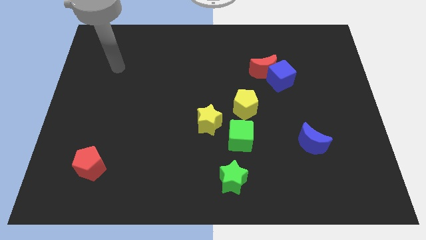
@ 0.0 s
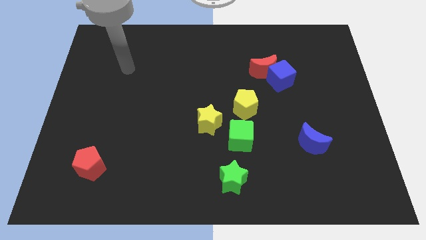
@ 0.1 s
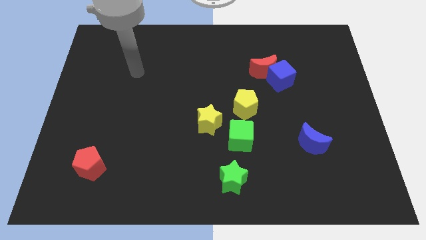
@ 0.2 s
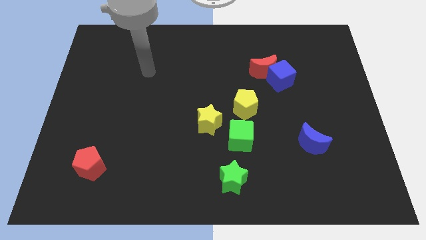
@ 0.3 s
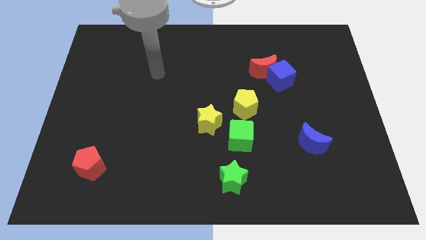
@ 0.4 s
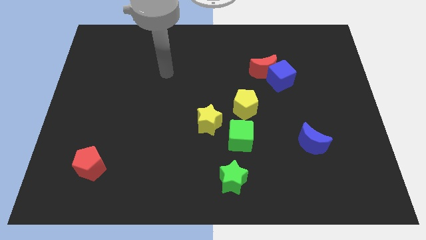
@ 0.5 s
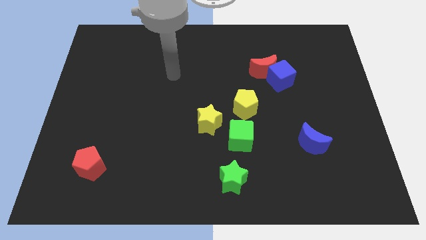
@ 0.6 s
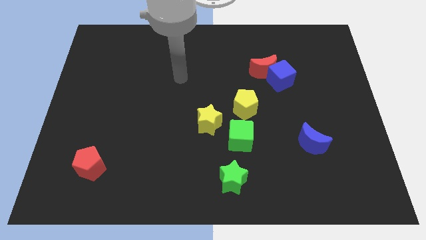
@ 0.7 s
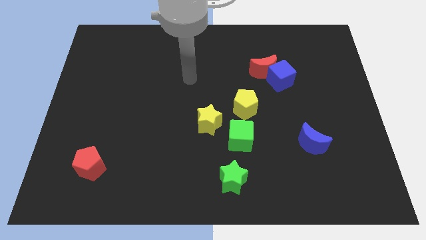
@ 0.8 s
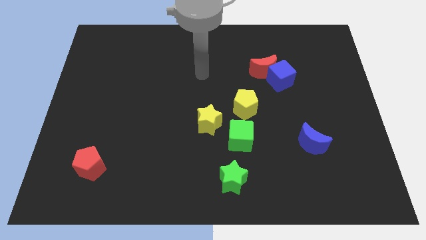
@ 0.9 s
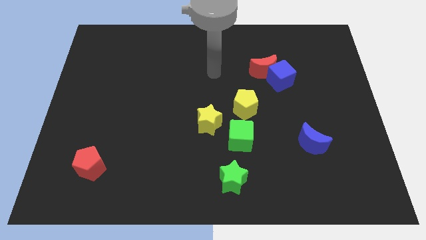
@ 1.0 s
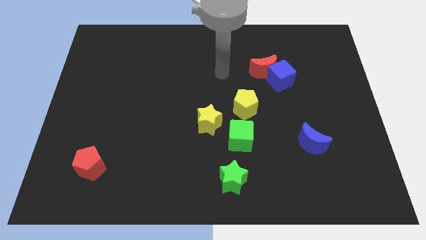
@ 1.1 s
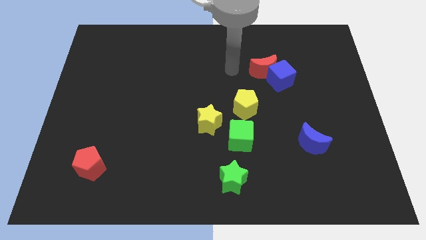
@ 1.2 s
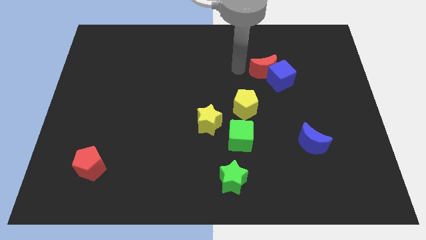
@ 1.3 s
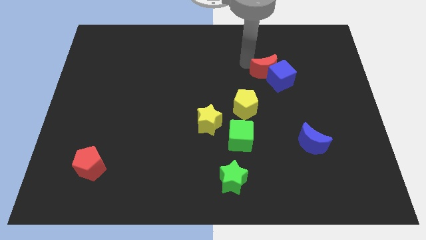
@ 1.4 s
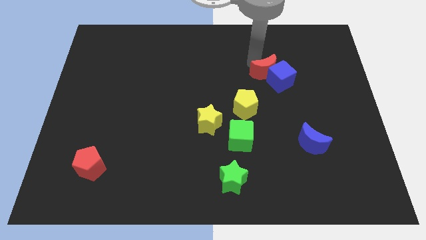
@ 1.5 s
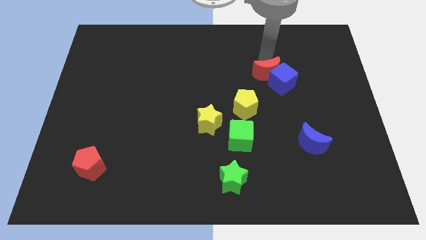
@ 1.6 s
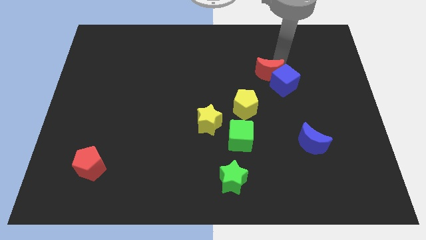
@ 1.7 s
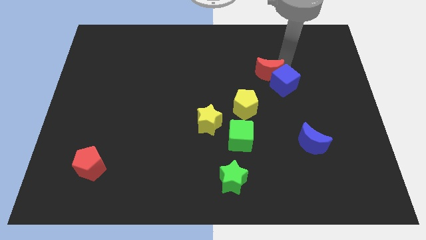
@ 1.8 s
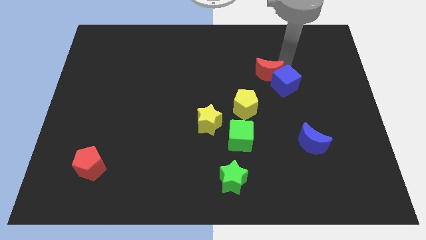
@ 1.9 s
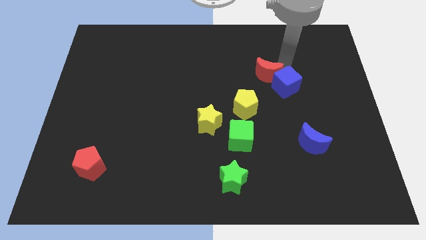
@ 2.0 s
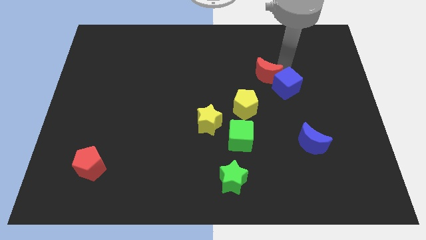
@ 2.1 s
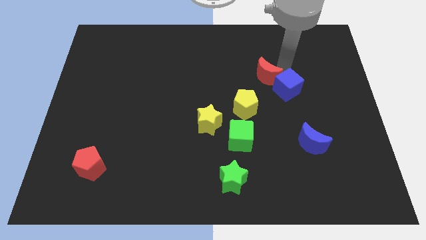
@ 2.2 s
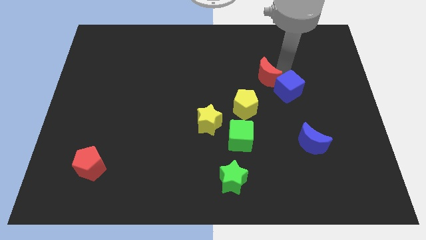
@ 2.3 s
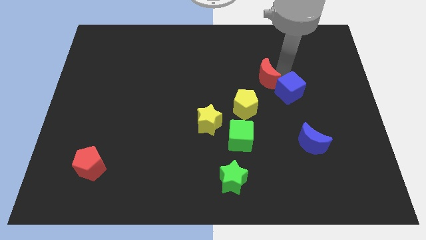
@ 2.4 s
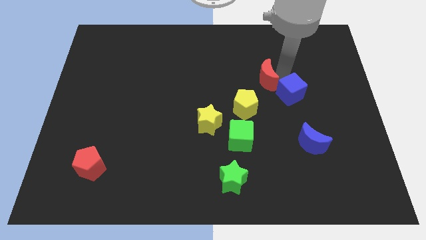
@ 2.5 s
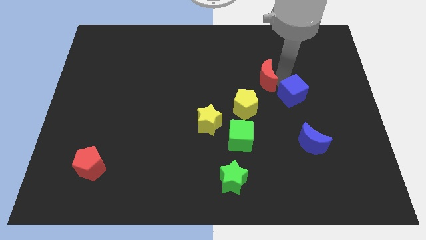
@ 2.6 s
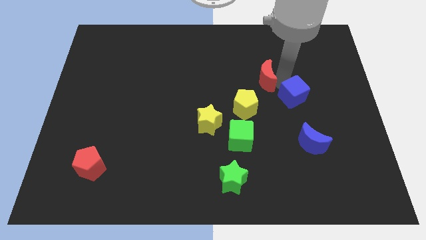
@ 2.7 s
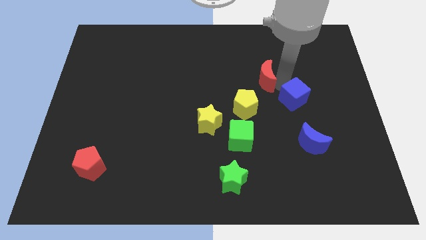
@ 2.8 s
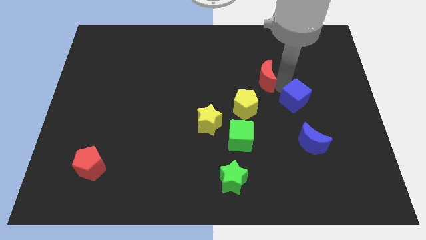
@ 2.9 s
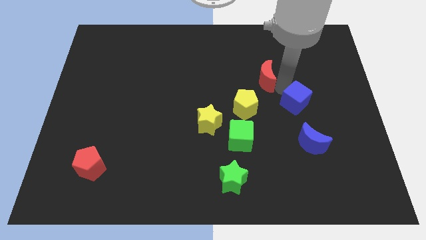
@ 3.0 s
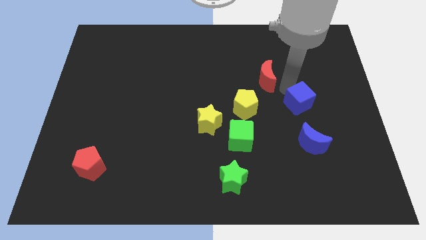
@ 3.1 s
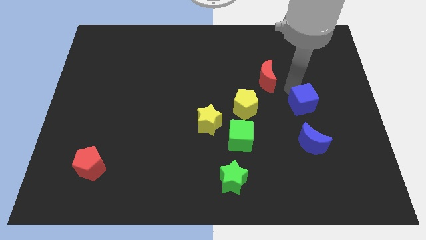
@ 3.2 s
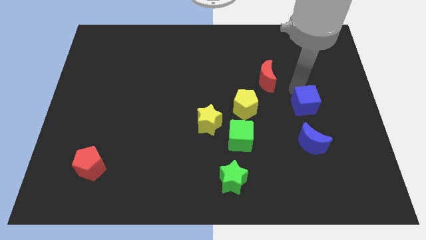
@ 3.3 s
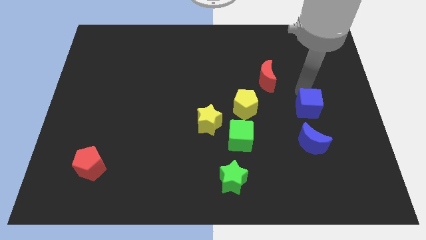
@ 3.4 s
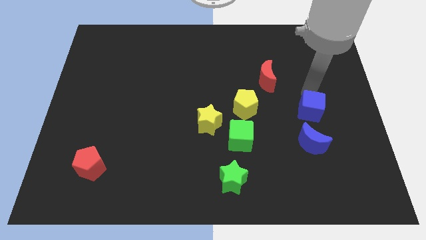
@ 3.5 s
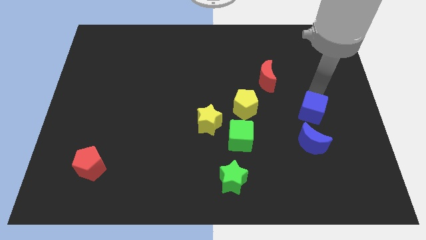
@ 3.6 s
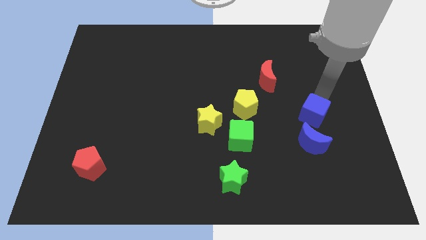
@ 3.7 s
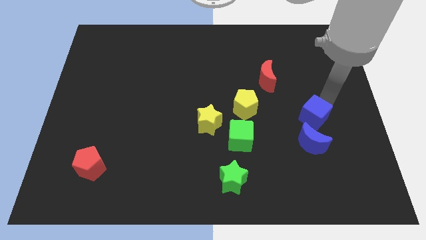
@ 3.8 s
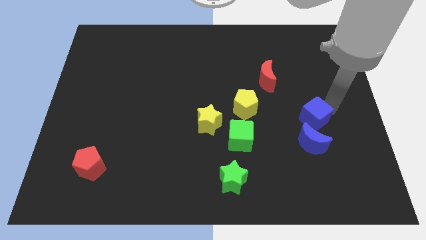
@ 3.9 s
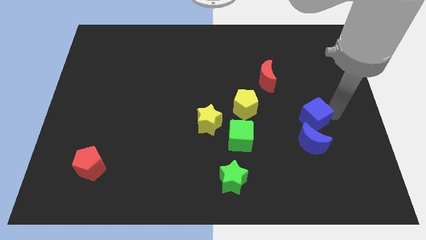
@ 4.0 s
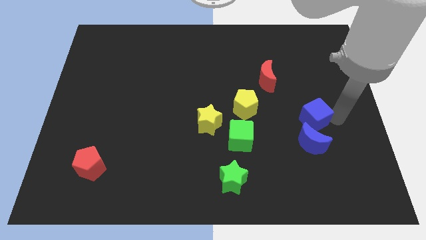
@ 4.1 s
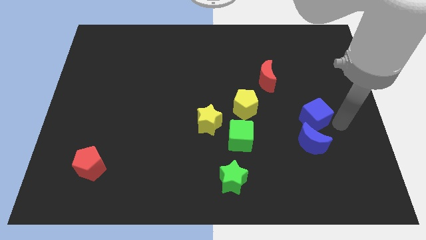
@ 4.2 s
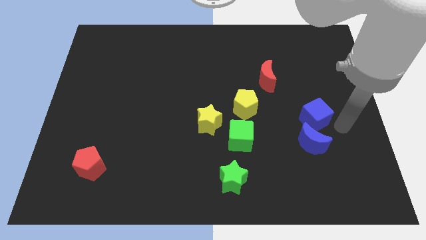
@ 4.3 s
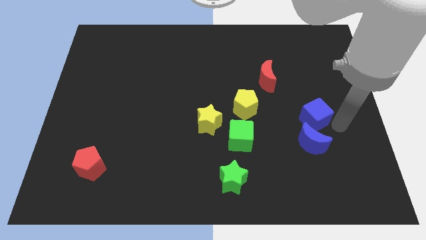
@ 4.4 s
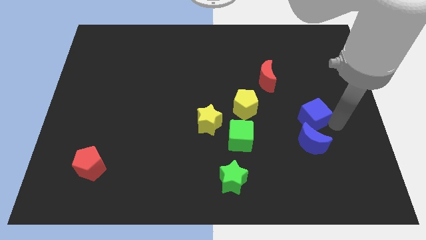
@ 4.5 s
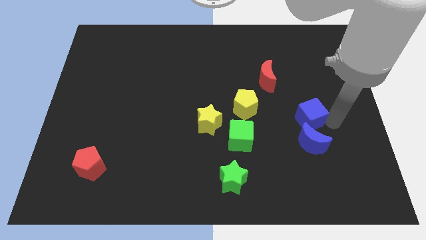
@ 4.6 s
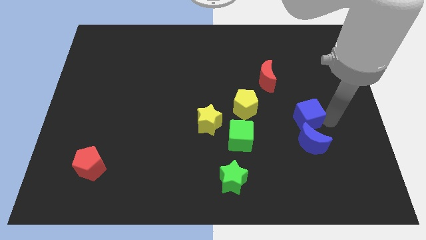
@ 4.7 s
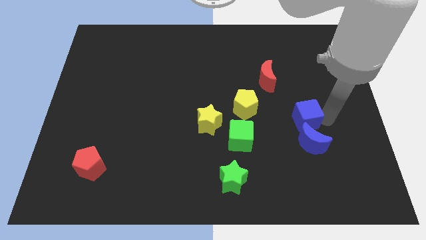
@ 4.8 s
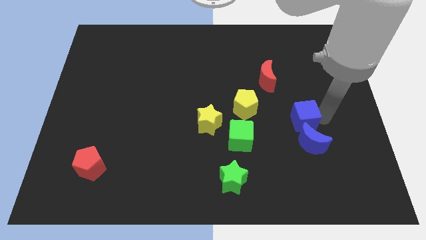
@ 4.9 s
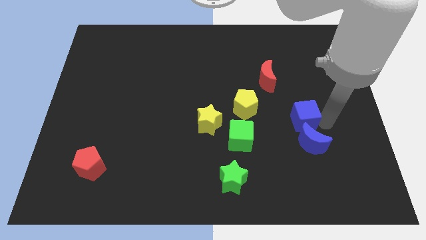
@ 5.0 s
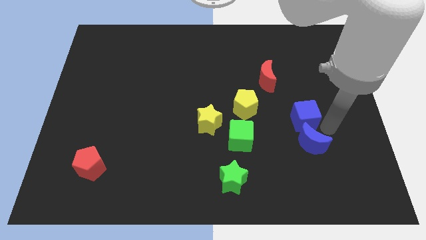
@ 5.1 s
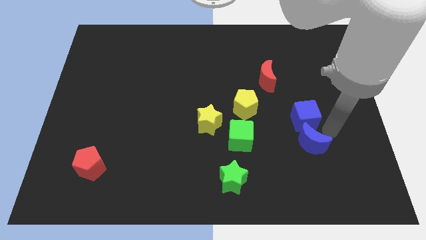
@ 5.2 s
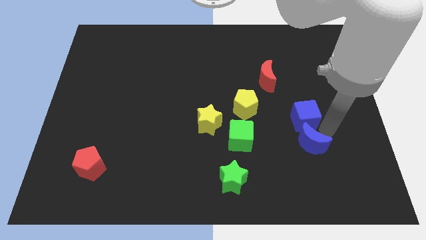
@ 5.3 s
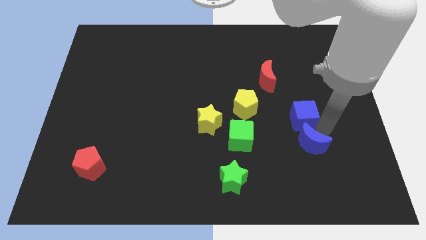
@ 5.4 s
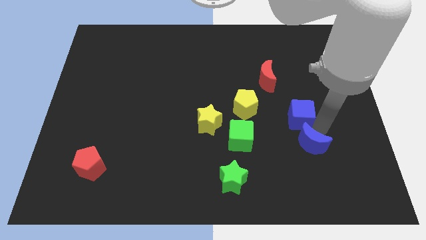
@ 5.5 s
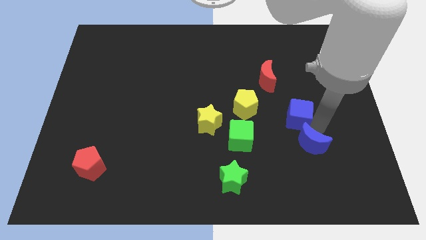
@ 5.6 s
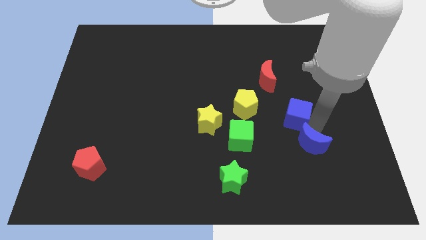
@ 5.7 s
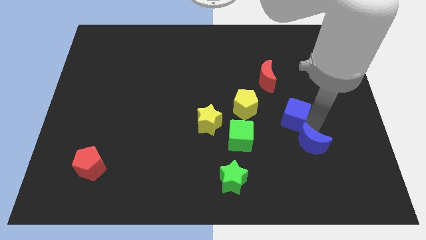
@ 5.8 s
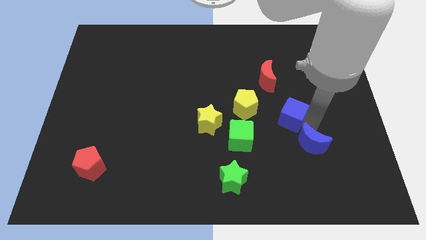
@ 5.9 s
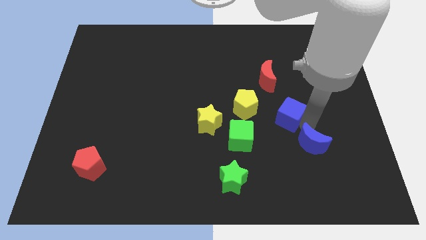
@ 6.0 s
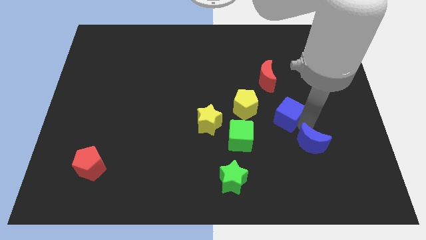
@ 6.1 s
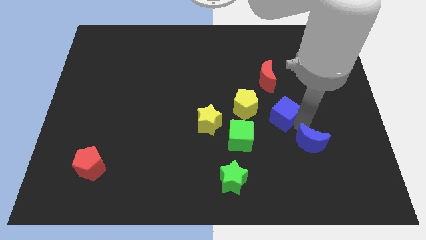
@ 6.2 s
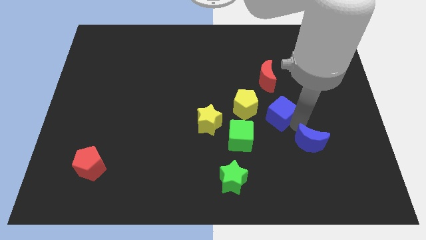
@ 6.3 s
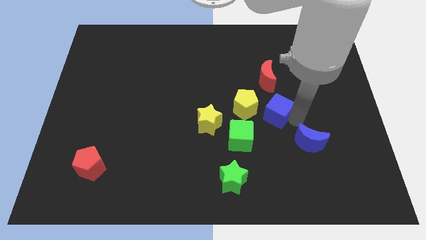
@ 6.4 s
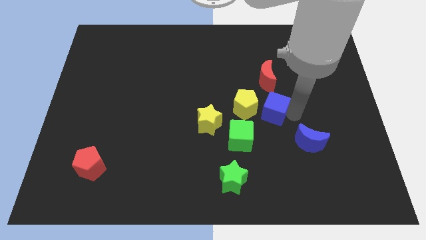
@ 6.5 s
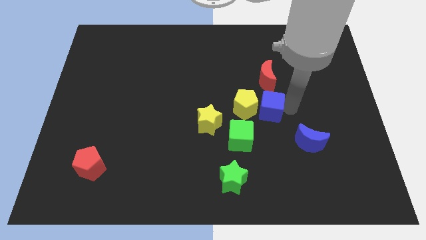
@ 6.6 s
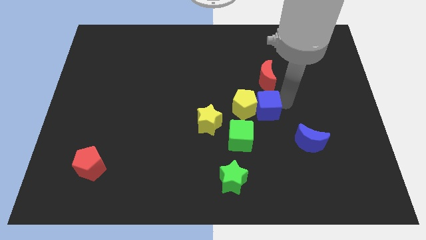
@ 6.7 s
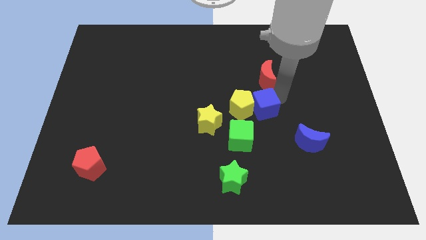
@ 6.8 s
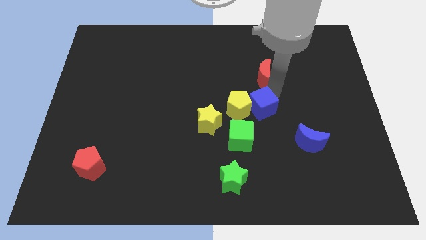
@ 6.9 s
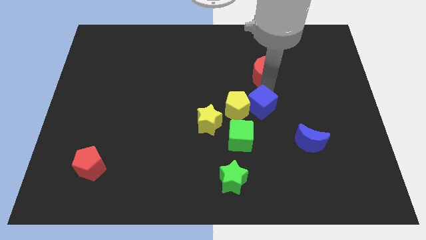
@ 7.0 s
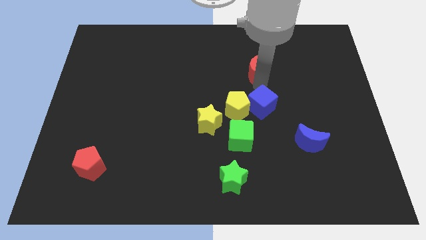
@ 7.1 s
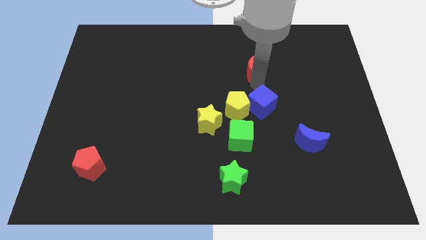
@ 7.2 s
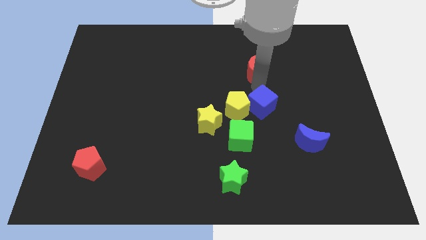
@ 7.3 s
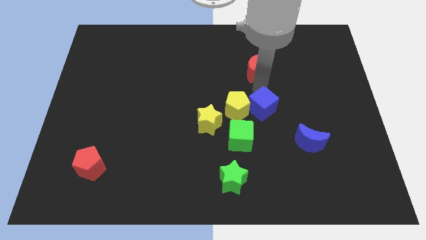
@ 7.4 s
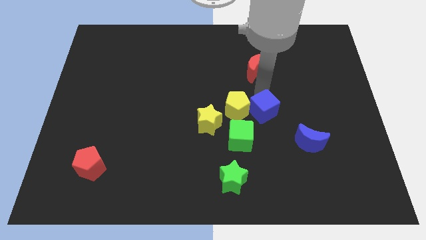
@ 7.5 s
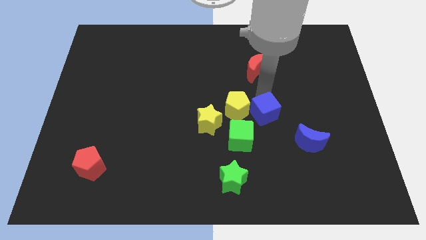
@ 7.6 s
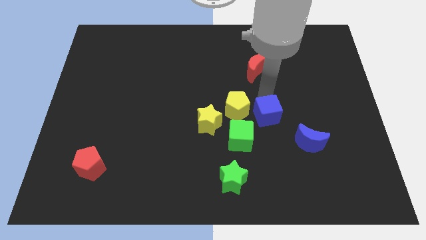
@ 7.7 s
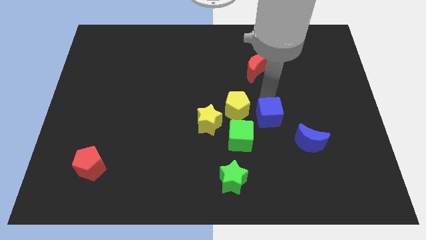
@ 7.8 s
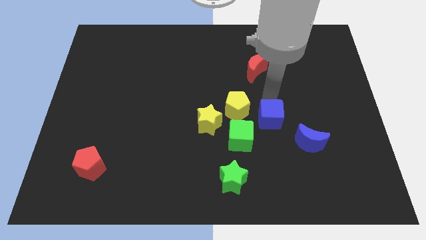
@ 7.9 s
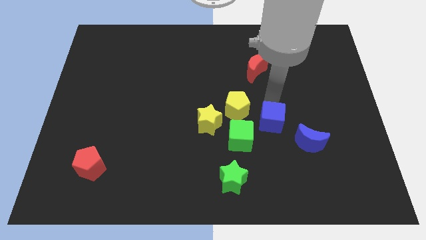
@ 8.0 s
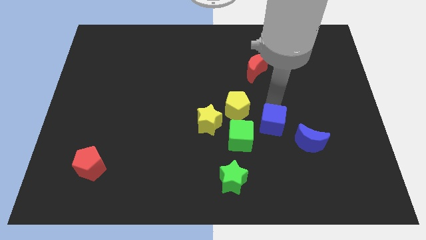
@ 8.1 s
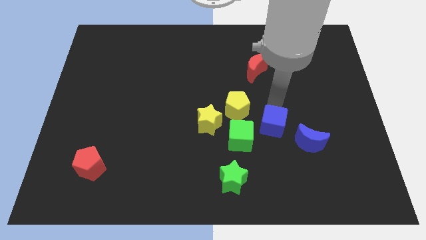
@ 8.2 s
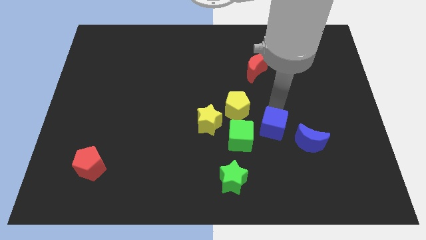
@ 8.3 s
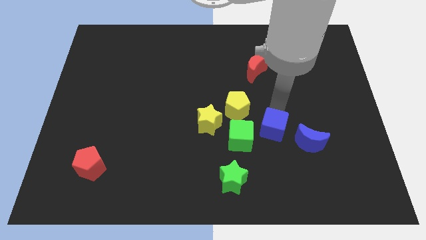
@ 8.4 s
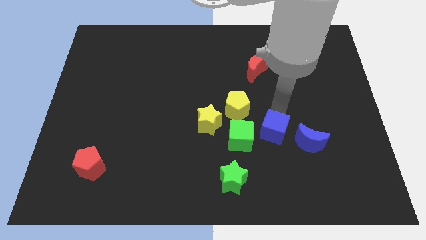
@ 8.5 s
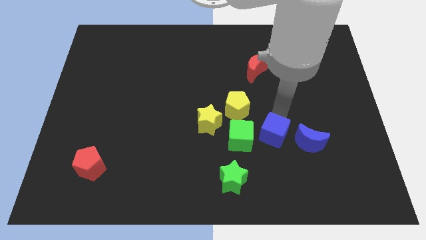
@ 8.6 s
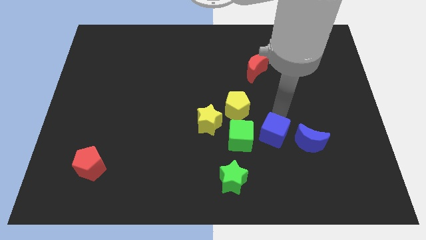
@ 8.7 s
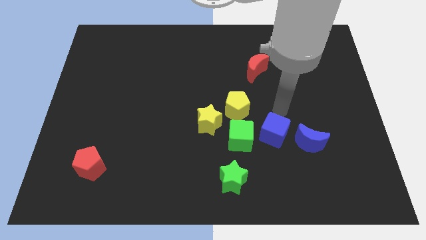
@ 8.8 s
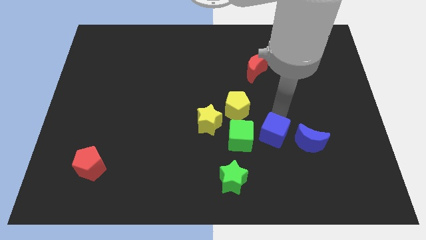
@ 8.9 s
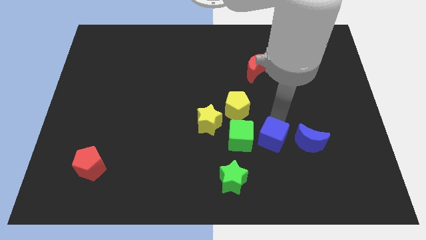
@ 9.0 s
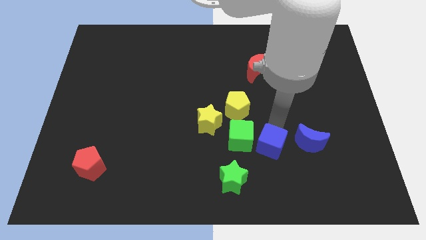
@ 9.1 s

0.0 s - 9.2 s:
push the blue cube to the bottom right of the green cube
